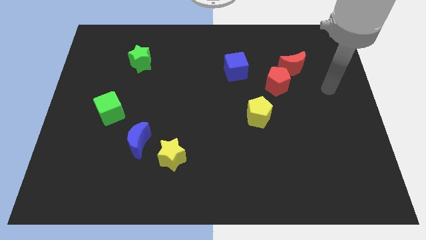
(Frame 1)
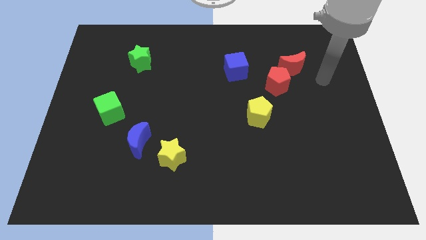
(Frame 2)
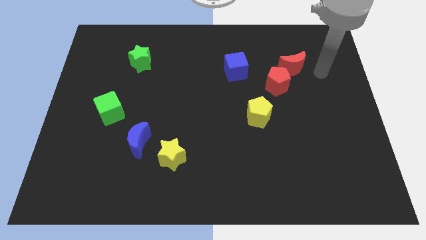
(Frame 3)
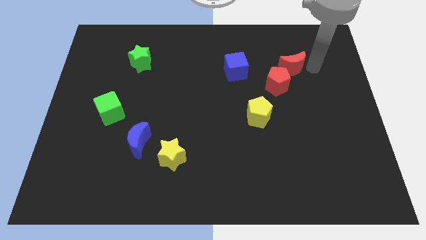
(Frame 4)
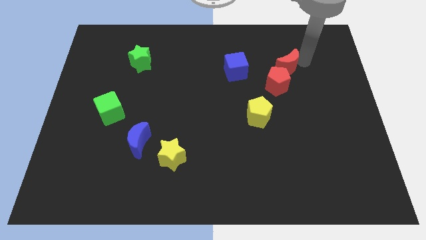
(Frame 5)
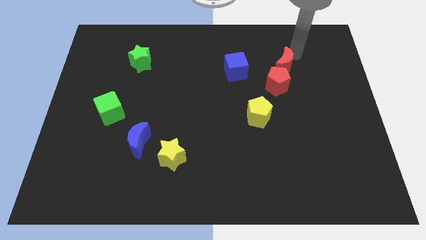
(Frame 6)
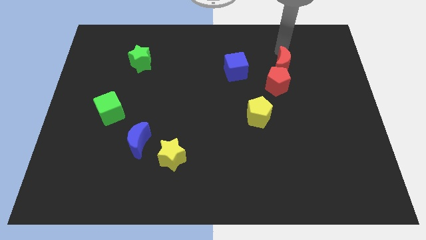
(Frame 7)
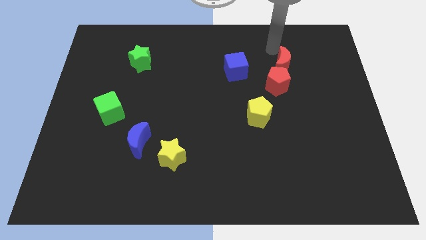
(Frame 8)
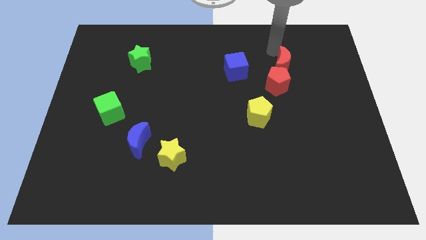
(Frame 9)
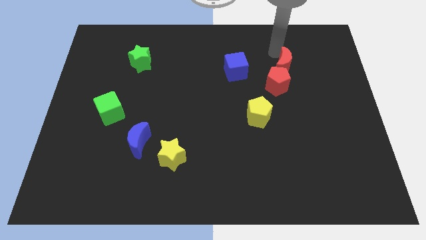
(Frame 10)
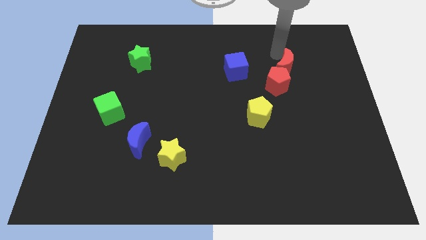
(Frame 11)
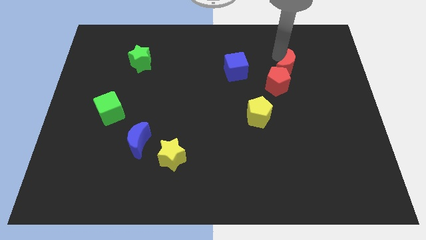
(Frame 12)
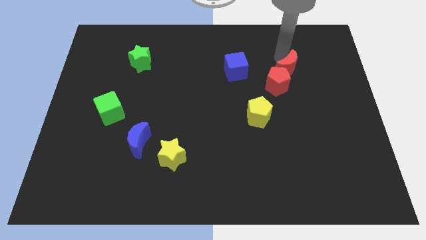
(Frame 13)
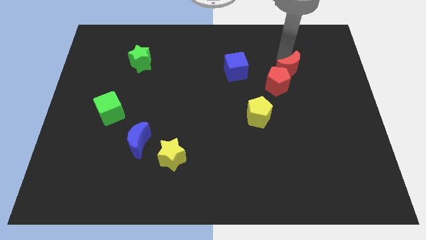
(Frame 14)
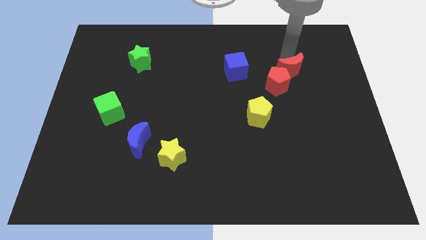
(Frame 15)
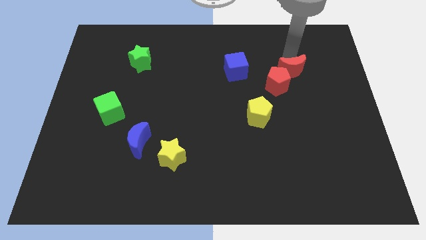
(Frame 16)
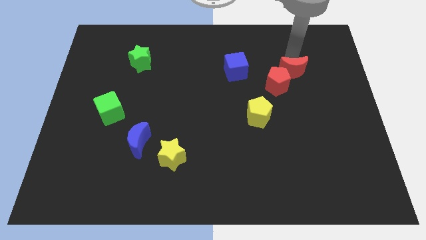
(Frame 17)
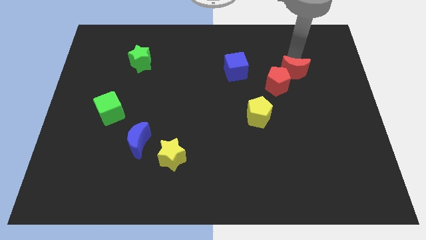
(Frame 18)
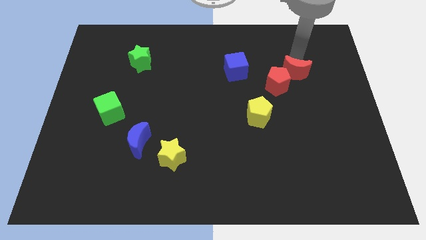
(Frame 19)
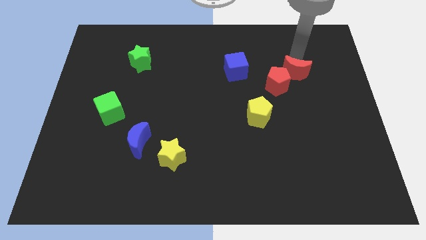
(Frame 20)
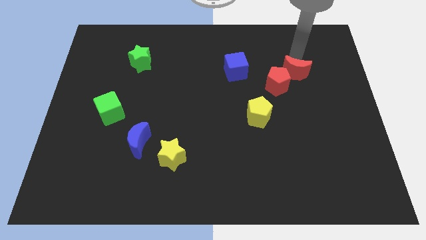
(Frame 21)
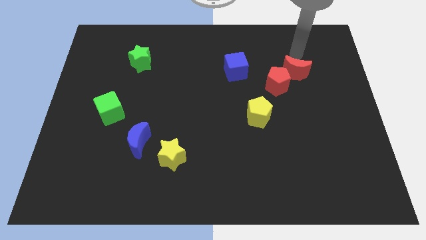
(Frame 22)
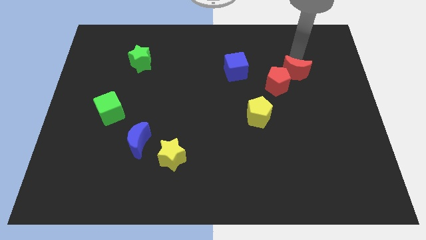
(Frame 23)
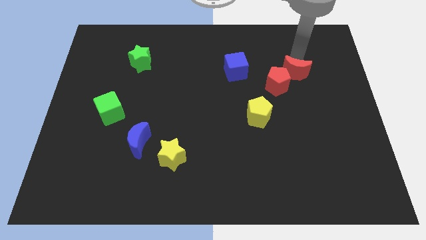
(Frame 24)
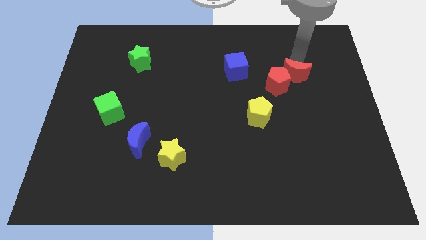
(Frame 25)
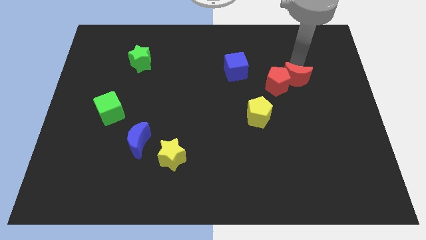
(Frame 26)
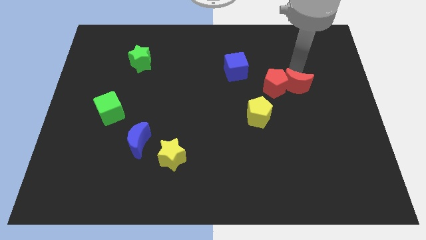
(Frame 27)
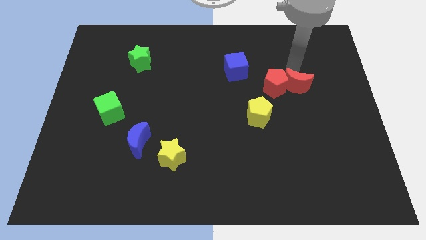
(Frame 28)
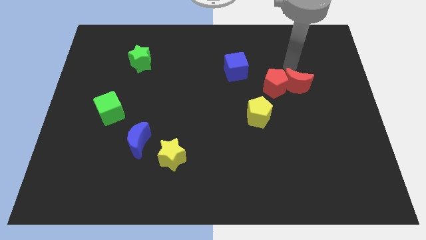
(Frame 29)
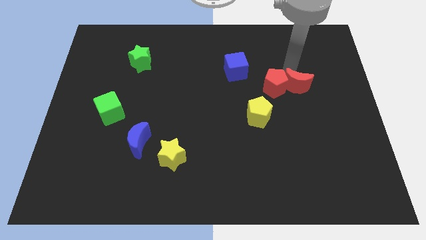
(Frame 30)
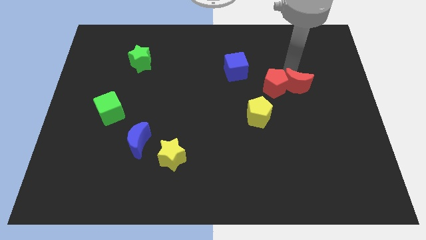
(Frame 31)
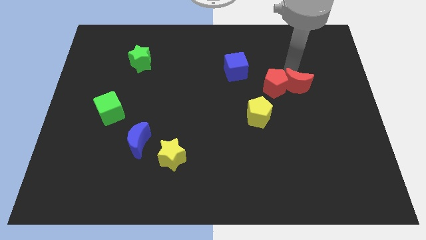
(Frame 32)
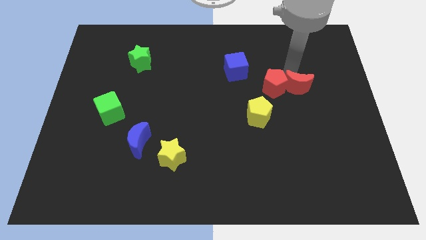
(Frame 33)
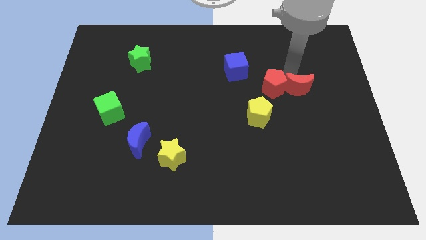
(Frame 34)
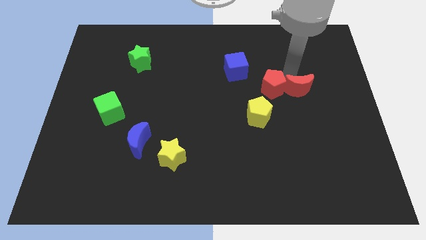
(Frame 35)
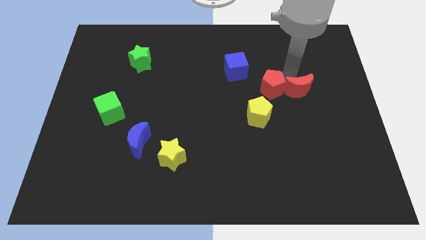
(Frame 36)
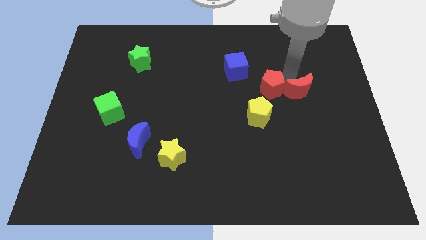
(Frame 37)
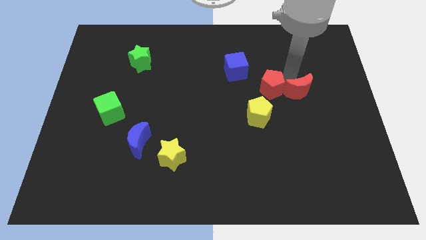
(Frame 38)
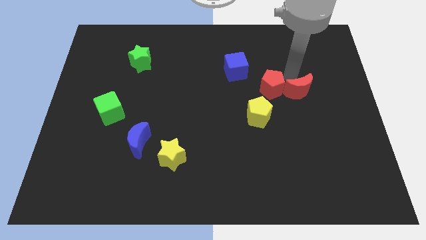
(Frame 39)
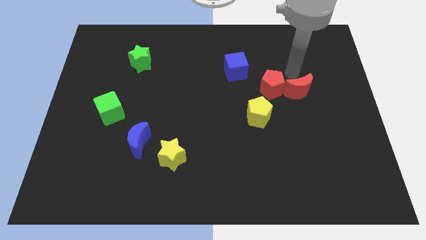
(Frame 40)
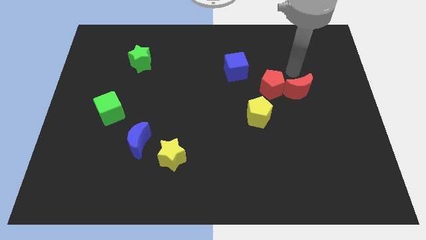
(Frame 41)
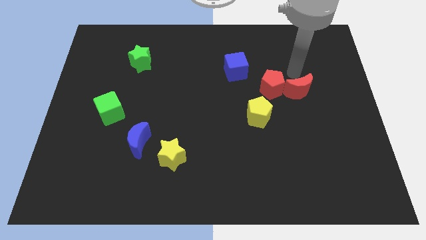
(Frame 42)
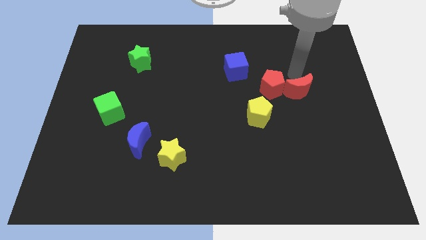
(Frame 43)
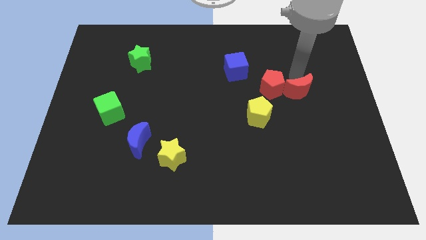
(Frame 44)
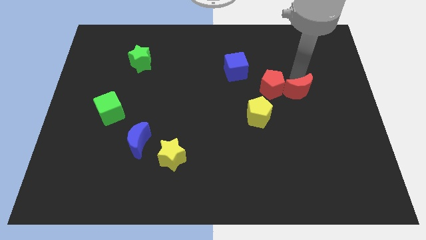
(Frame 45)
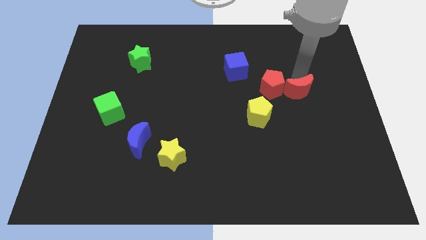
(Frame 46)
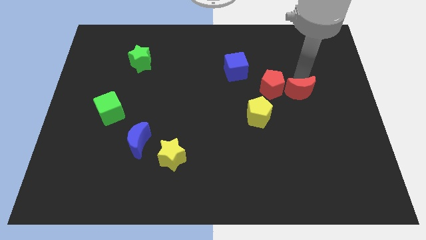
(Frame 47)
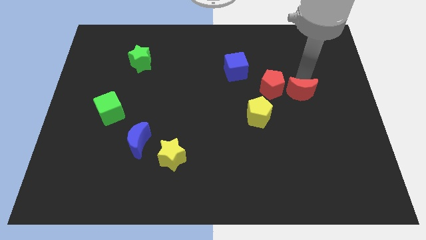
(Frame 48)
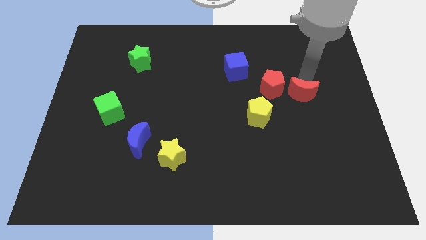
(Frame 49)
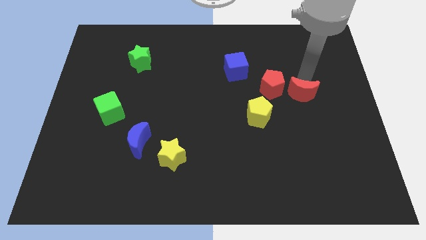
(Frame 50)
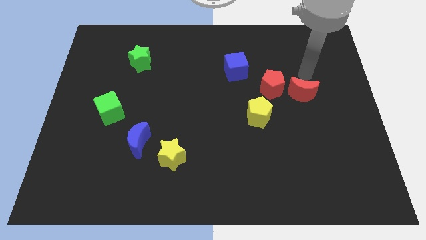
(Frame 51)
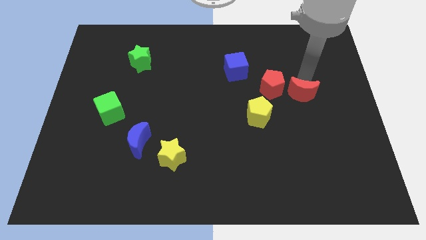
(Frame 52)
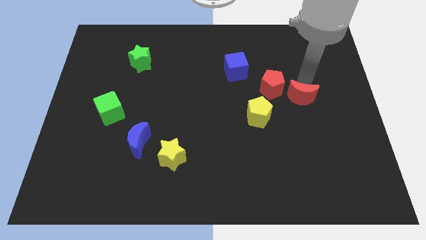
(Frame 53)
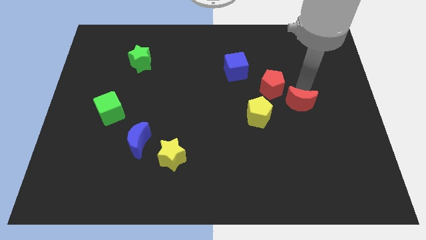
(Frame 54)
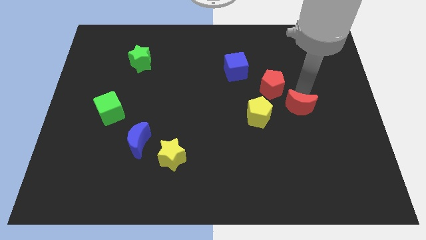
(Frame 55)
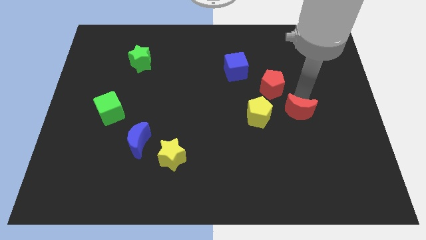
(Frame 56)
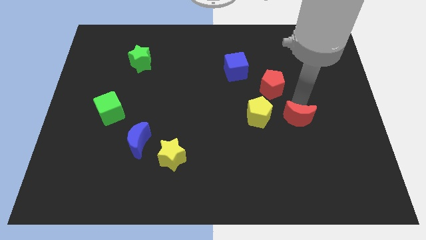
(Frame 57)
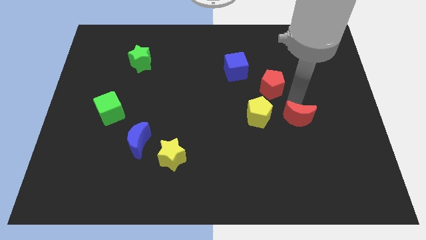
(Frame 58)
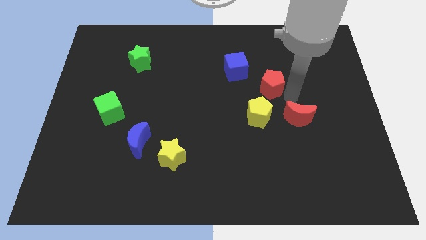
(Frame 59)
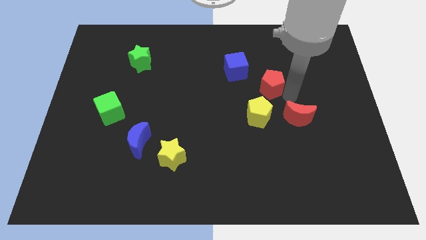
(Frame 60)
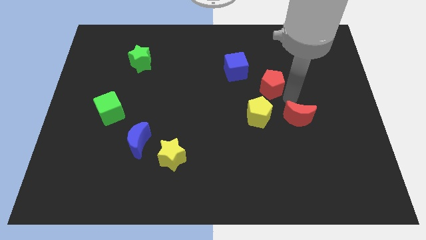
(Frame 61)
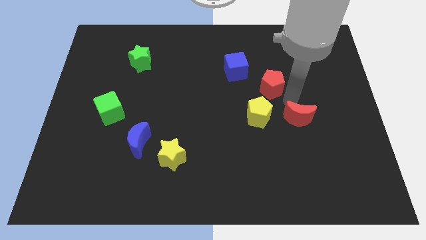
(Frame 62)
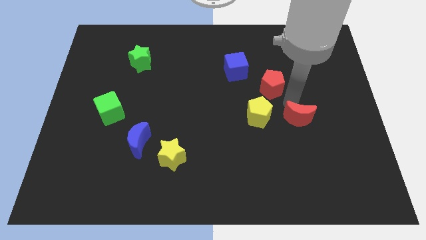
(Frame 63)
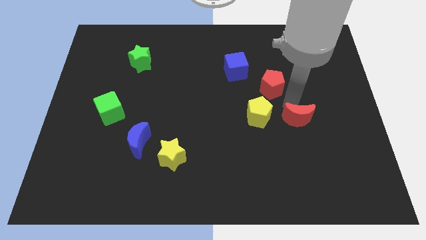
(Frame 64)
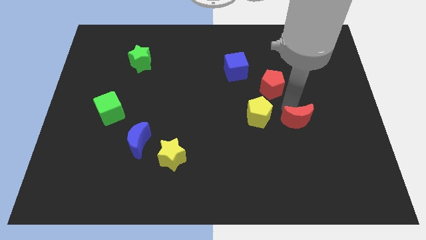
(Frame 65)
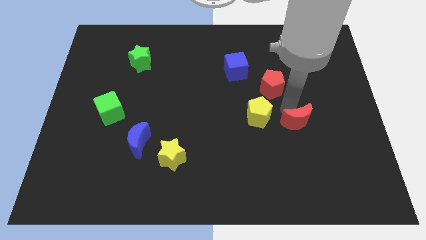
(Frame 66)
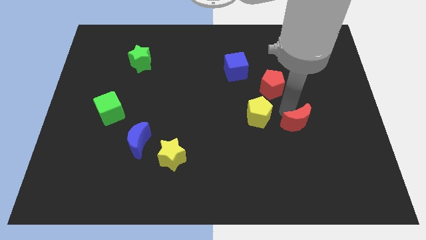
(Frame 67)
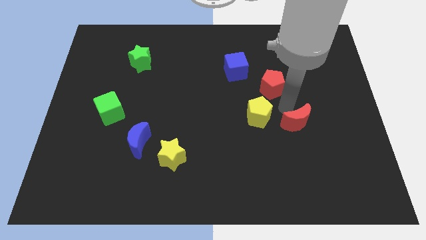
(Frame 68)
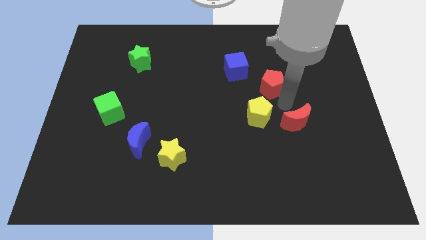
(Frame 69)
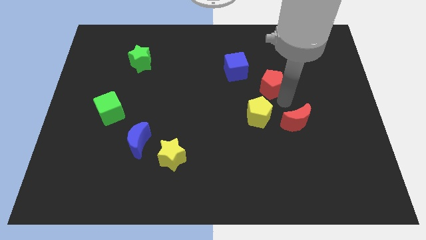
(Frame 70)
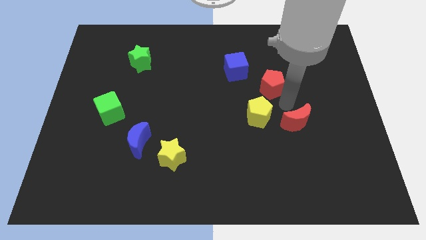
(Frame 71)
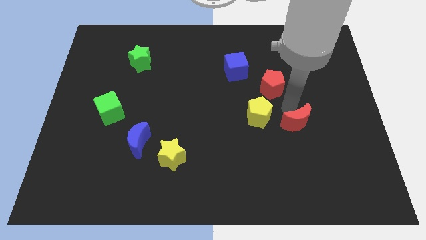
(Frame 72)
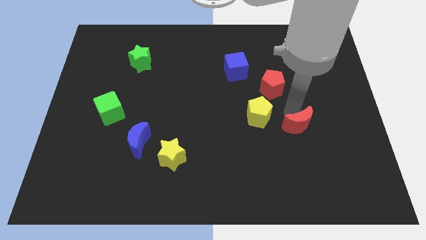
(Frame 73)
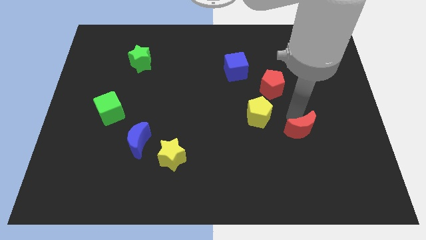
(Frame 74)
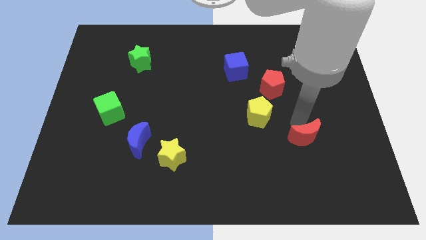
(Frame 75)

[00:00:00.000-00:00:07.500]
push the red moon downwards

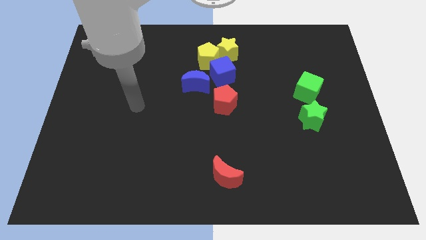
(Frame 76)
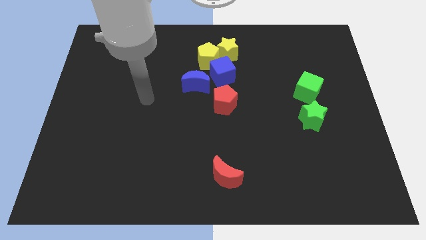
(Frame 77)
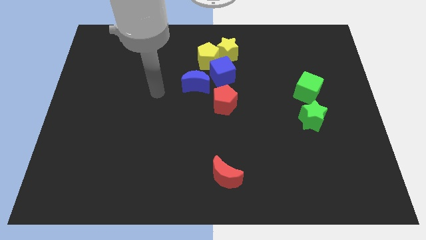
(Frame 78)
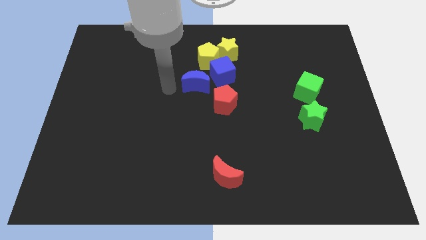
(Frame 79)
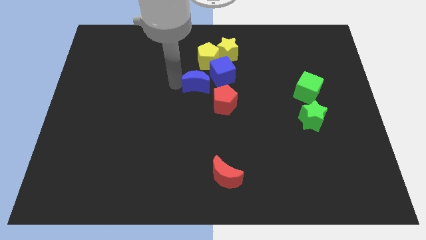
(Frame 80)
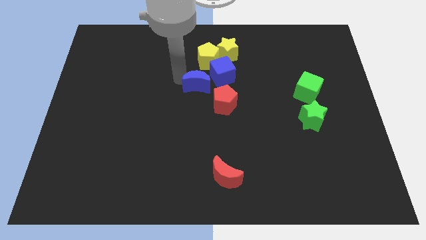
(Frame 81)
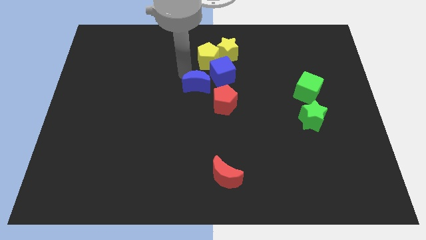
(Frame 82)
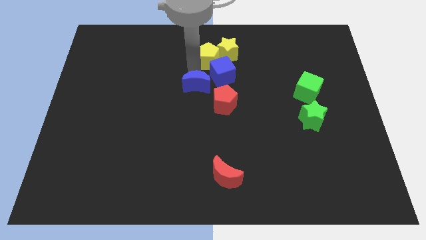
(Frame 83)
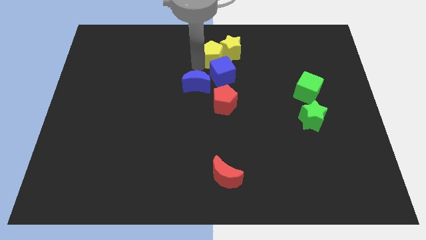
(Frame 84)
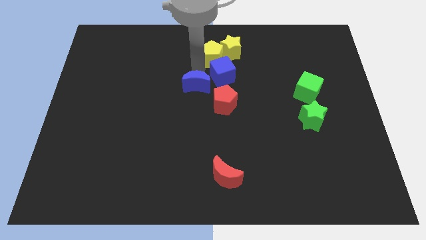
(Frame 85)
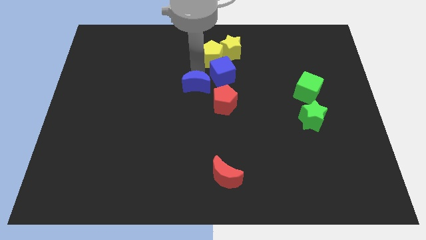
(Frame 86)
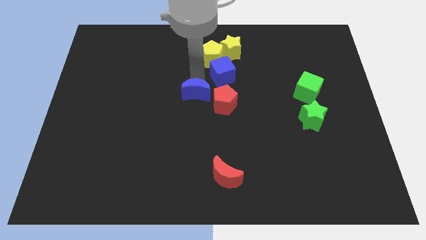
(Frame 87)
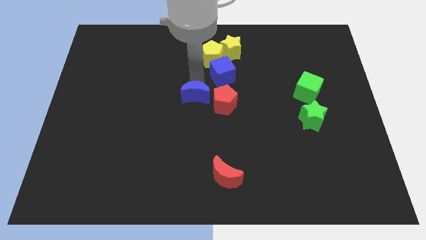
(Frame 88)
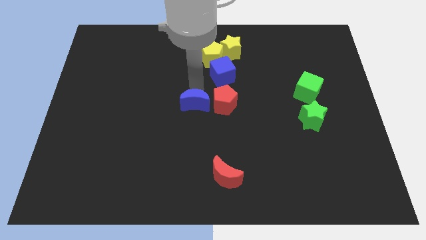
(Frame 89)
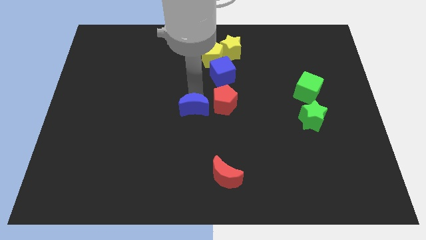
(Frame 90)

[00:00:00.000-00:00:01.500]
slightly move the blue moon down
